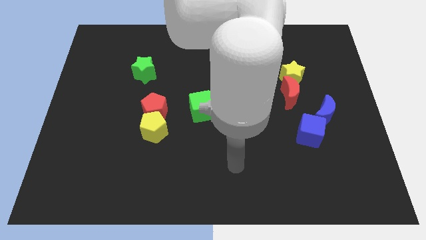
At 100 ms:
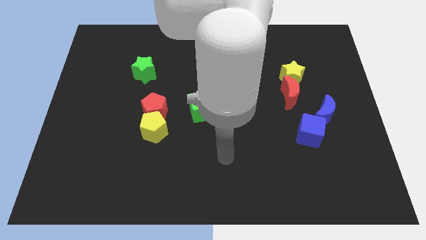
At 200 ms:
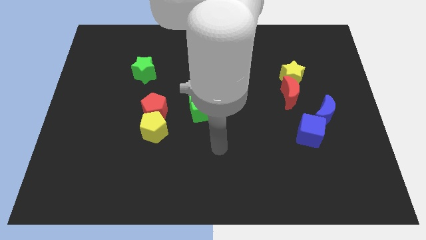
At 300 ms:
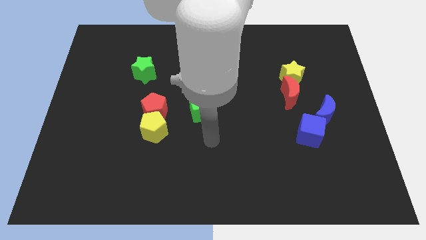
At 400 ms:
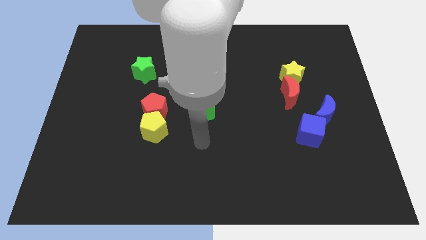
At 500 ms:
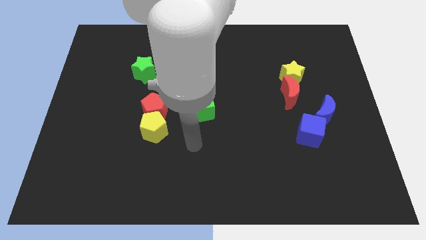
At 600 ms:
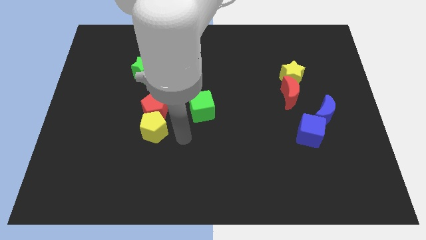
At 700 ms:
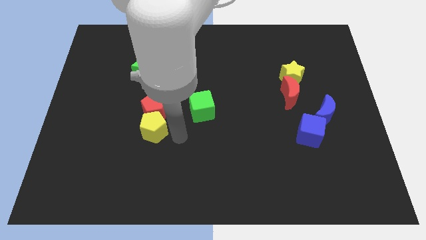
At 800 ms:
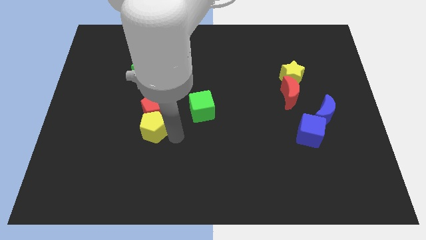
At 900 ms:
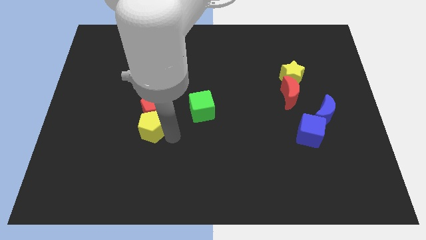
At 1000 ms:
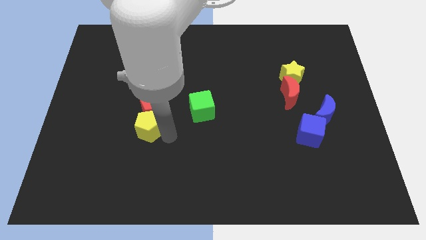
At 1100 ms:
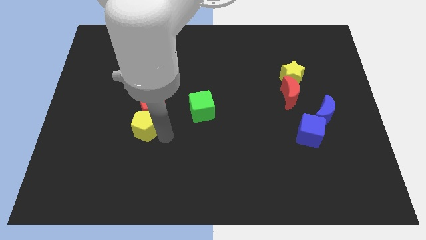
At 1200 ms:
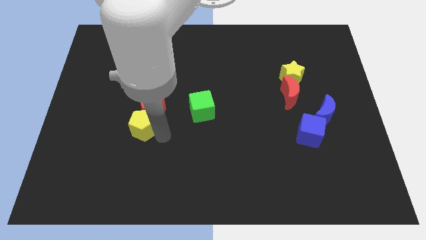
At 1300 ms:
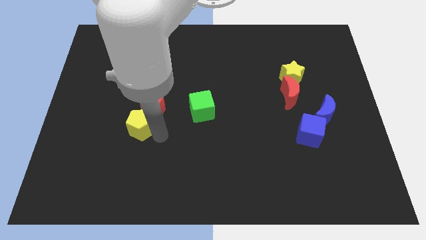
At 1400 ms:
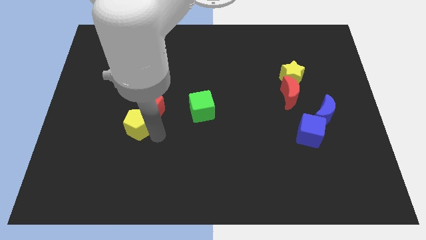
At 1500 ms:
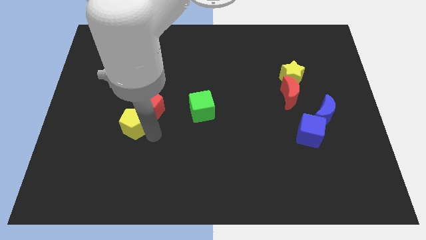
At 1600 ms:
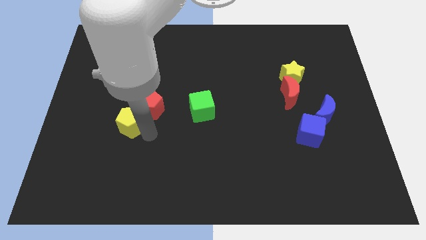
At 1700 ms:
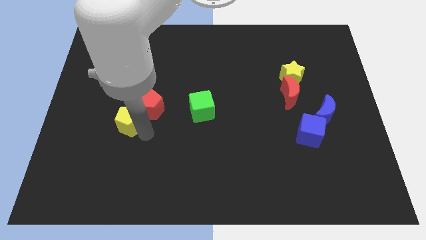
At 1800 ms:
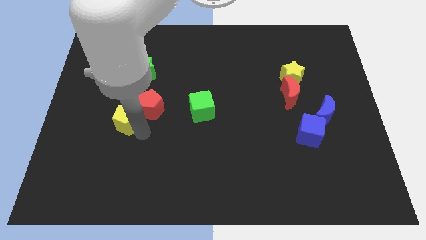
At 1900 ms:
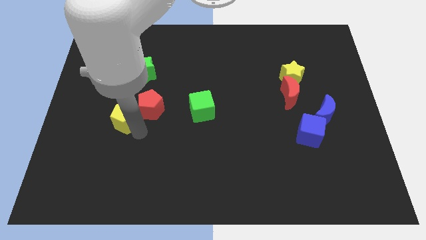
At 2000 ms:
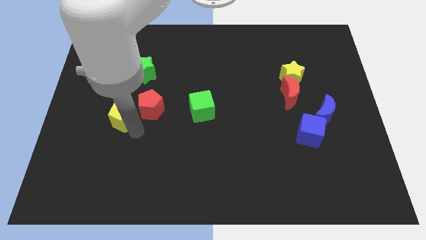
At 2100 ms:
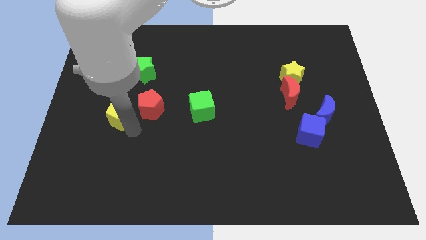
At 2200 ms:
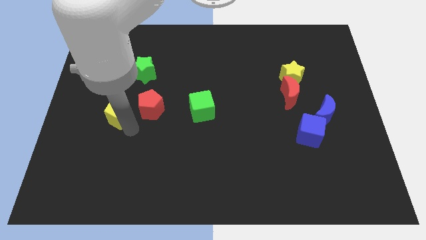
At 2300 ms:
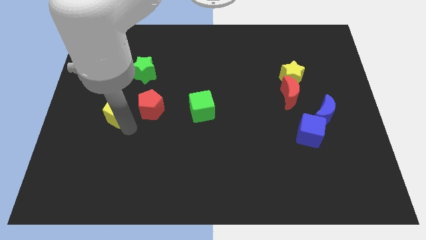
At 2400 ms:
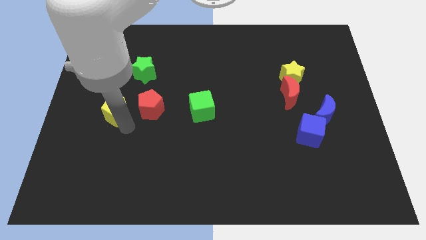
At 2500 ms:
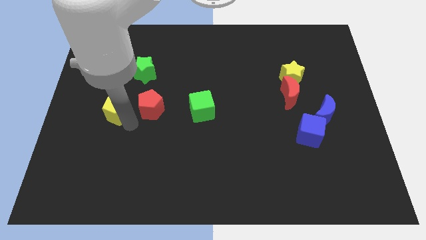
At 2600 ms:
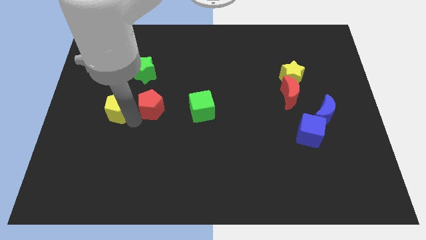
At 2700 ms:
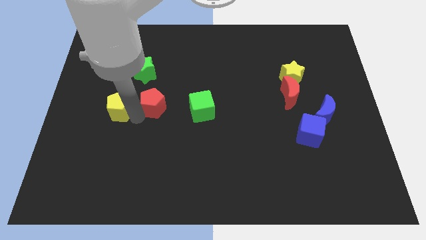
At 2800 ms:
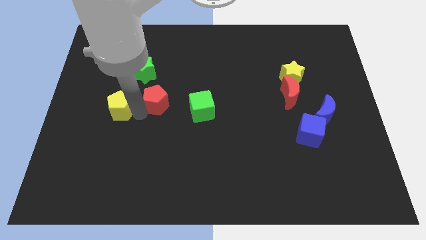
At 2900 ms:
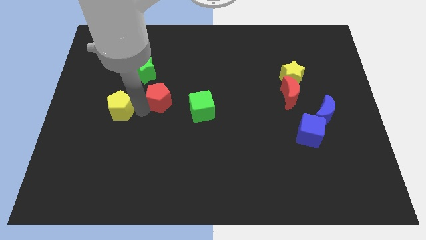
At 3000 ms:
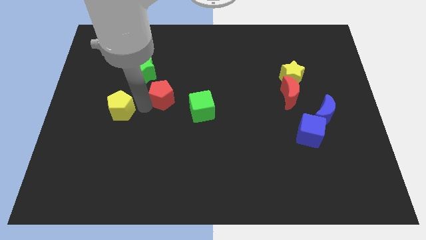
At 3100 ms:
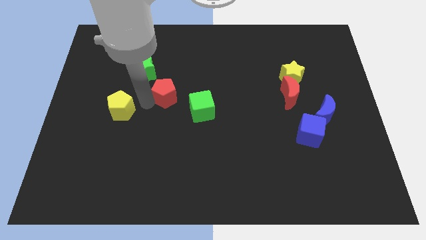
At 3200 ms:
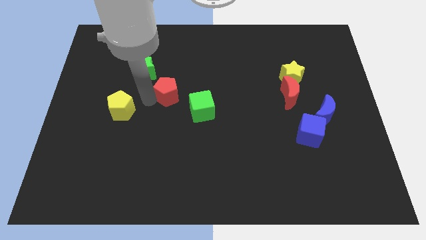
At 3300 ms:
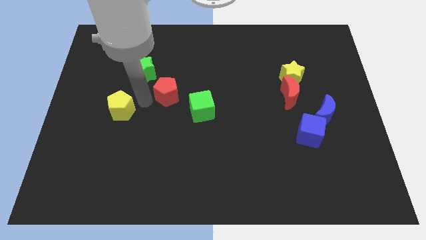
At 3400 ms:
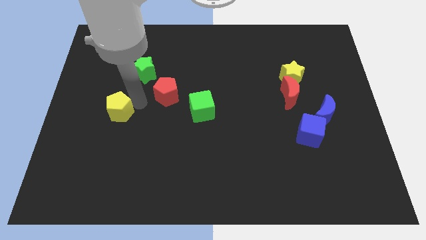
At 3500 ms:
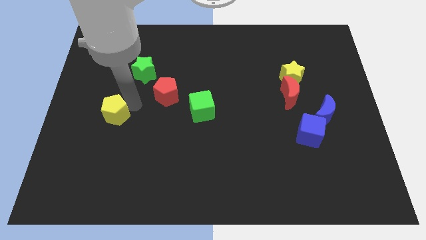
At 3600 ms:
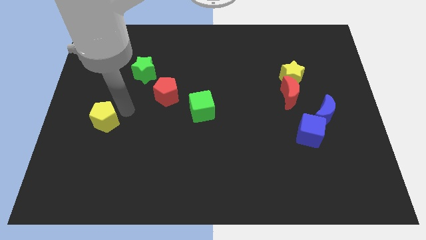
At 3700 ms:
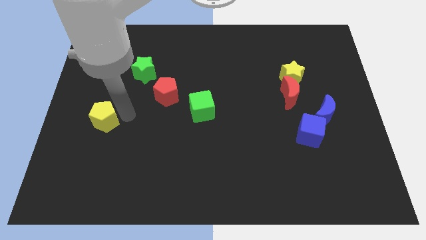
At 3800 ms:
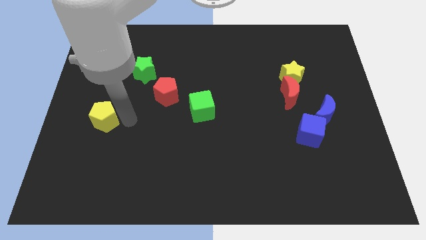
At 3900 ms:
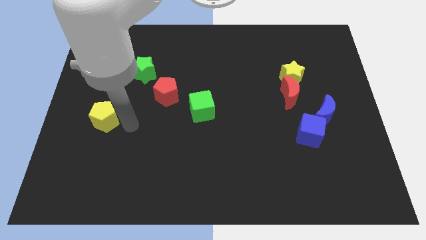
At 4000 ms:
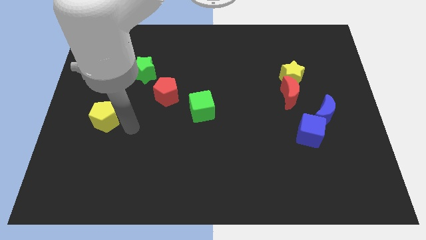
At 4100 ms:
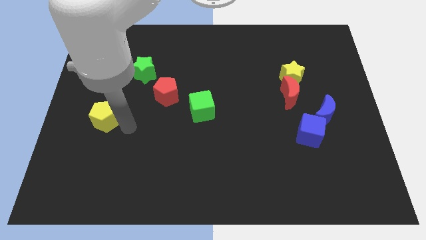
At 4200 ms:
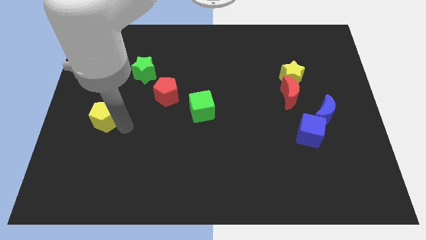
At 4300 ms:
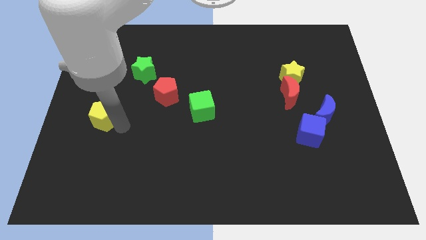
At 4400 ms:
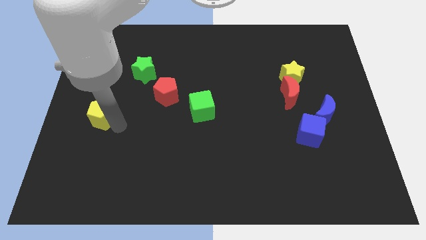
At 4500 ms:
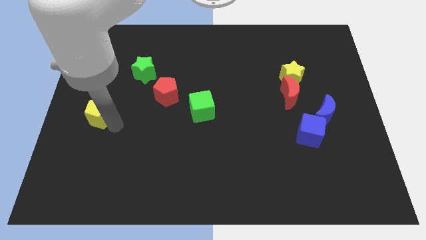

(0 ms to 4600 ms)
push the yellow pentagon to the center left

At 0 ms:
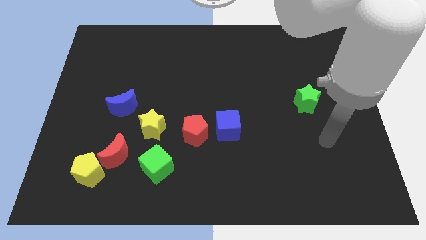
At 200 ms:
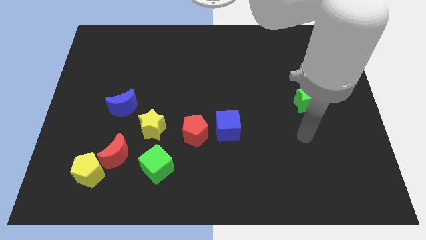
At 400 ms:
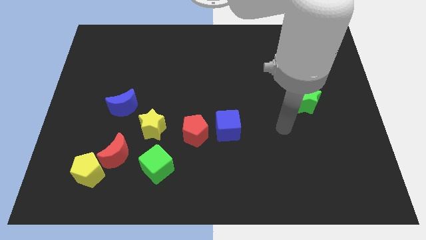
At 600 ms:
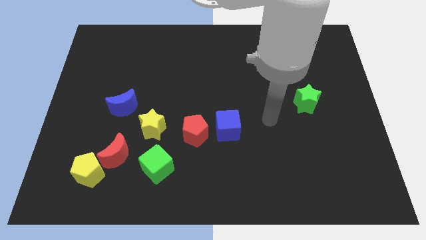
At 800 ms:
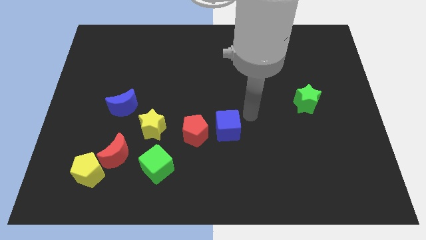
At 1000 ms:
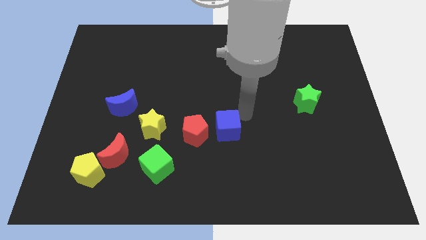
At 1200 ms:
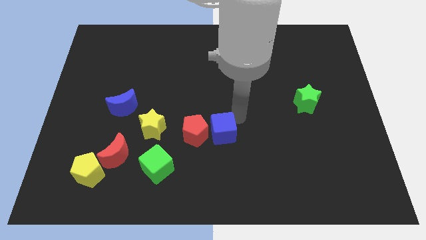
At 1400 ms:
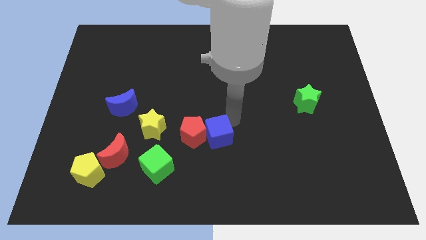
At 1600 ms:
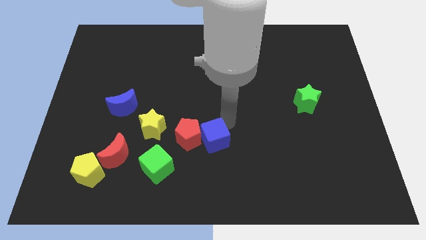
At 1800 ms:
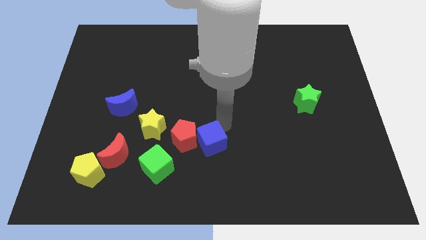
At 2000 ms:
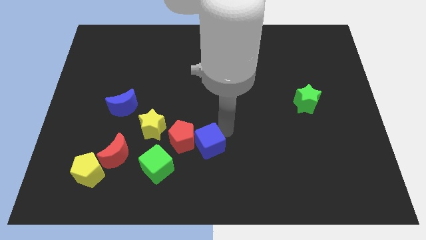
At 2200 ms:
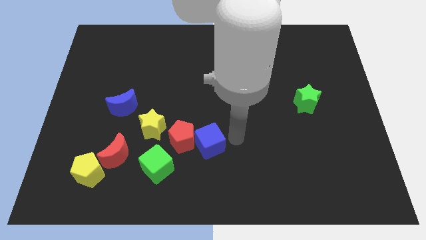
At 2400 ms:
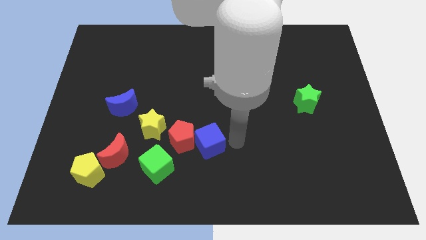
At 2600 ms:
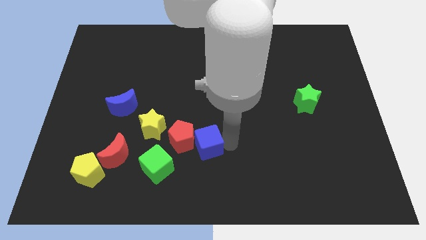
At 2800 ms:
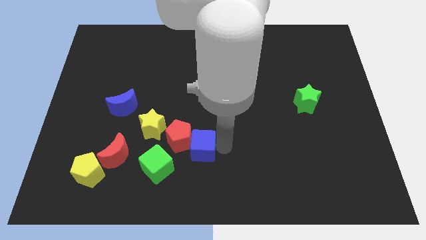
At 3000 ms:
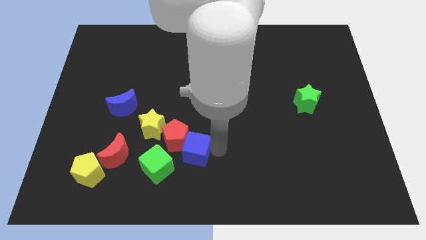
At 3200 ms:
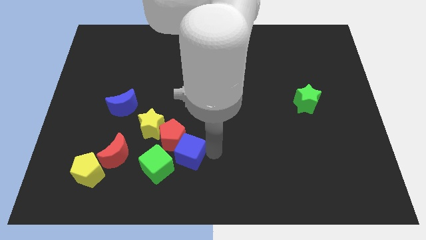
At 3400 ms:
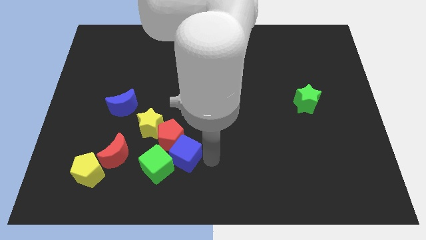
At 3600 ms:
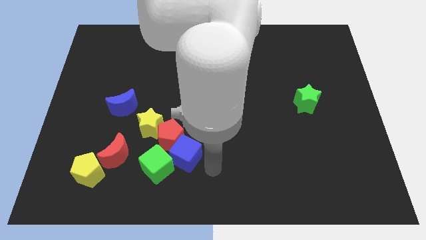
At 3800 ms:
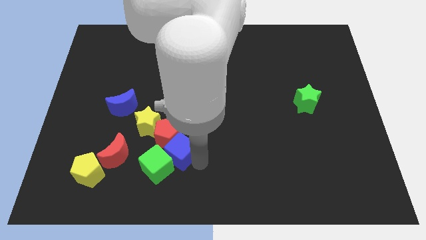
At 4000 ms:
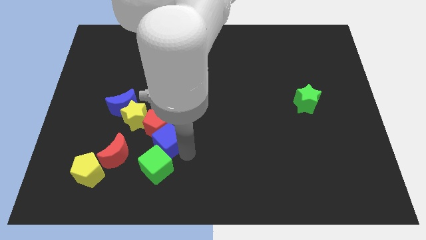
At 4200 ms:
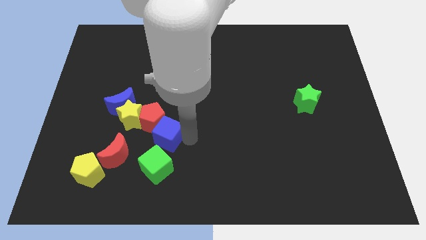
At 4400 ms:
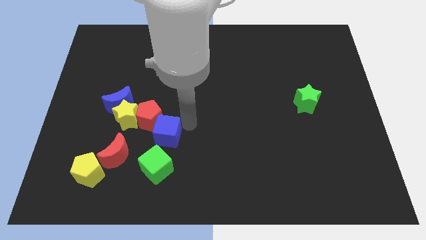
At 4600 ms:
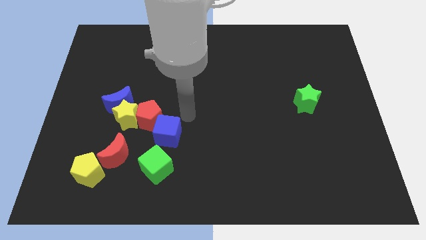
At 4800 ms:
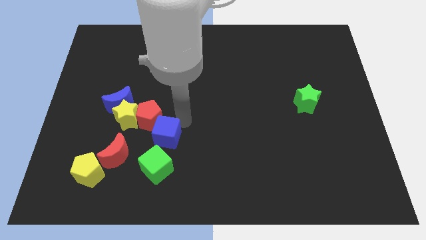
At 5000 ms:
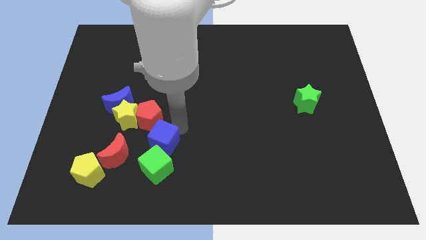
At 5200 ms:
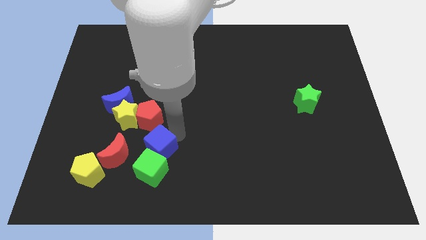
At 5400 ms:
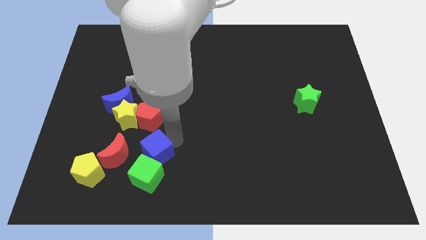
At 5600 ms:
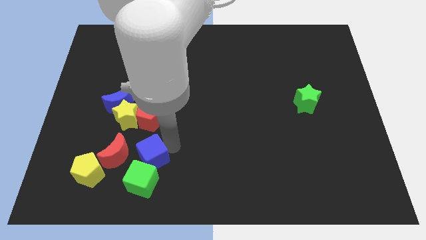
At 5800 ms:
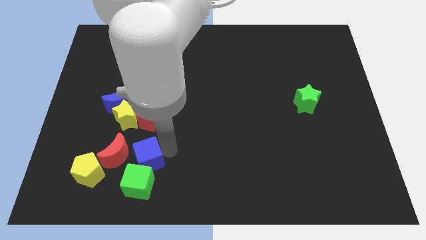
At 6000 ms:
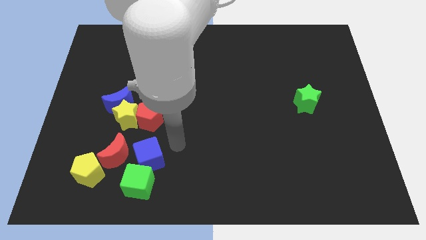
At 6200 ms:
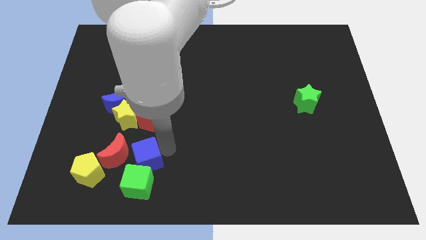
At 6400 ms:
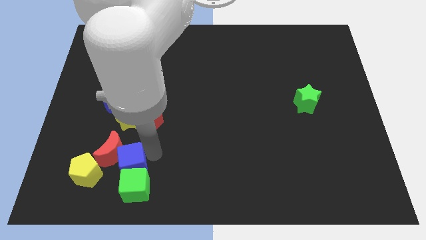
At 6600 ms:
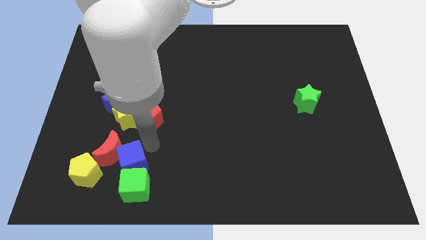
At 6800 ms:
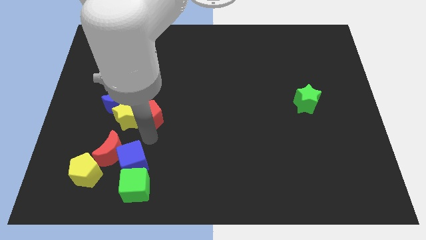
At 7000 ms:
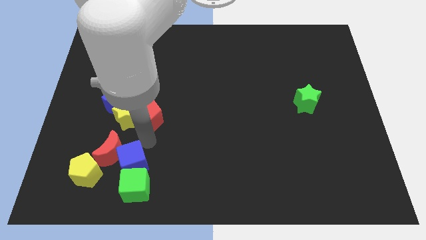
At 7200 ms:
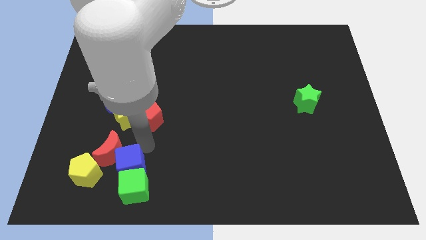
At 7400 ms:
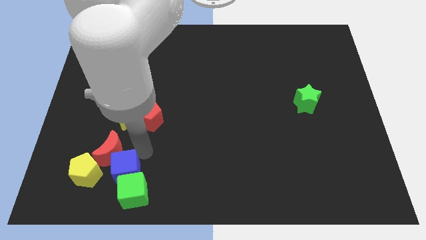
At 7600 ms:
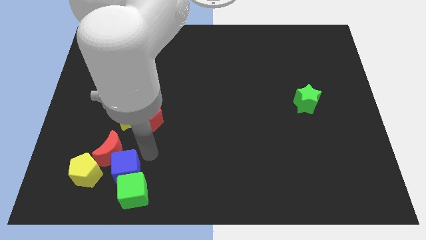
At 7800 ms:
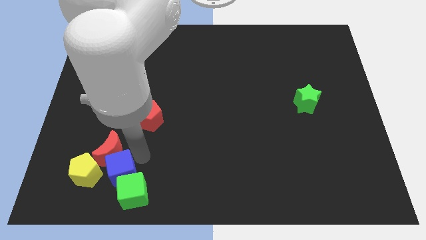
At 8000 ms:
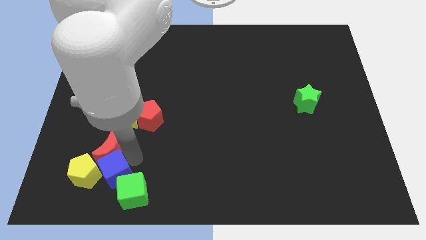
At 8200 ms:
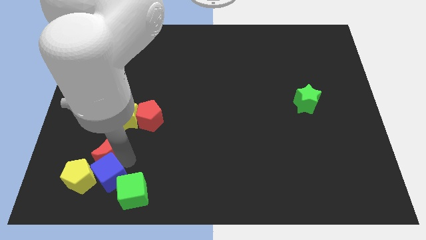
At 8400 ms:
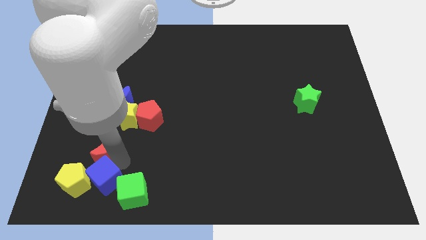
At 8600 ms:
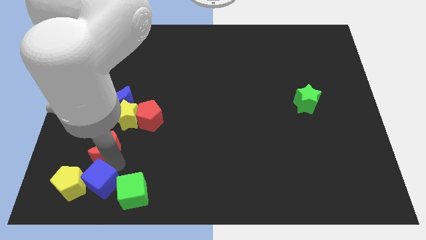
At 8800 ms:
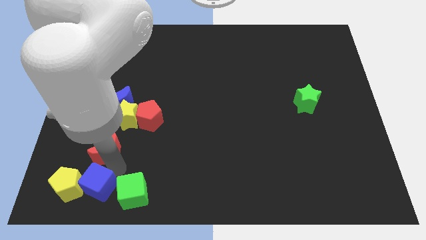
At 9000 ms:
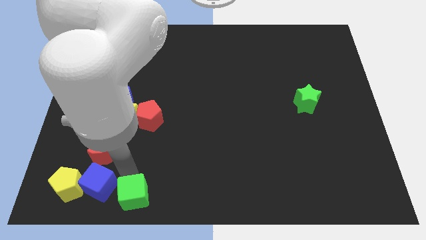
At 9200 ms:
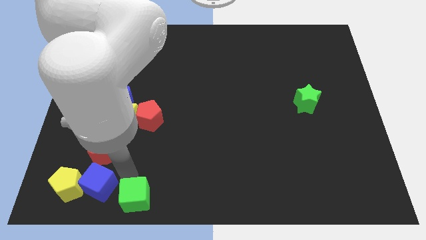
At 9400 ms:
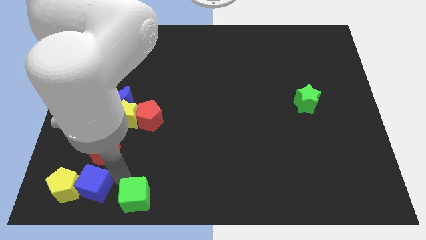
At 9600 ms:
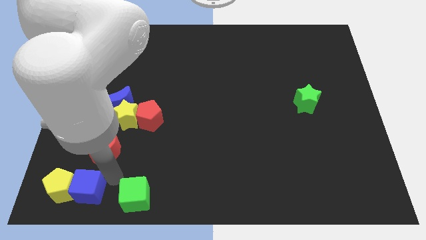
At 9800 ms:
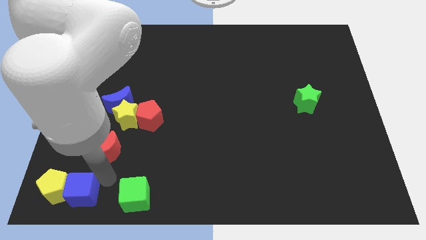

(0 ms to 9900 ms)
push the blue cube to the bottom left
